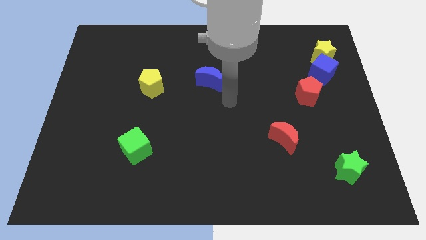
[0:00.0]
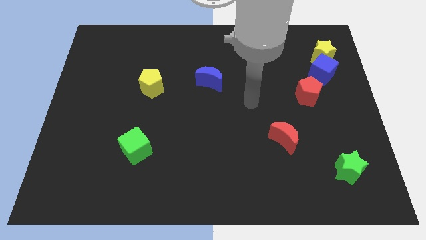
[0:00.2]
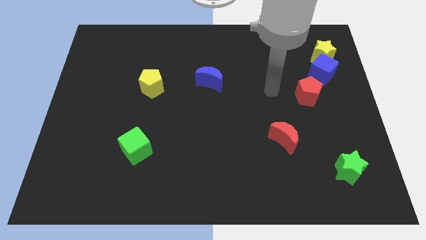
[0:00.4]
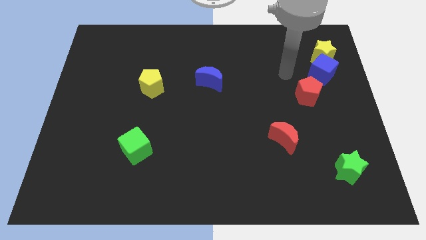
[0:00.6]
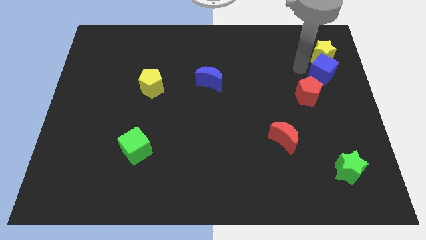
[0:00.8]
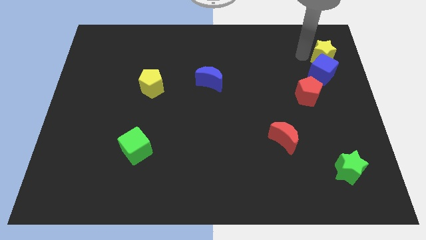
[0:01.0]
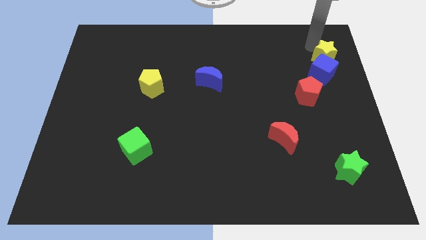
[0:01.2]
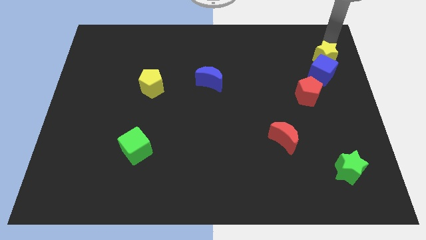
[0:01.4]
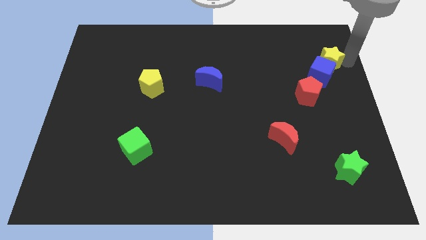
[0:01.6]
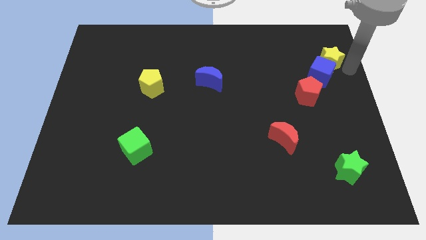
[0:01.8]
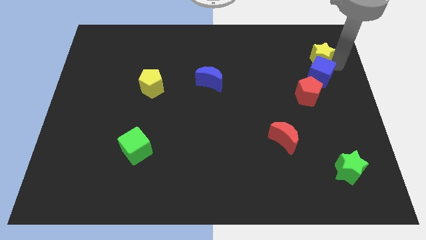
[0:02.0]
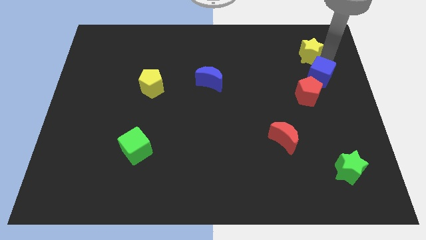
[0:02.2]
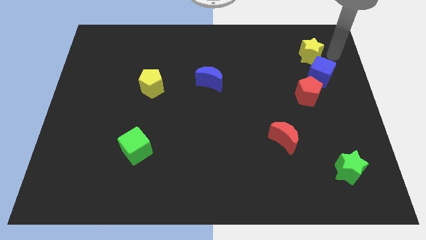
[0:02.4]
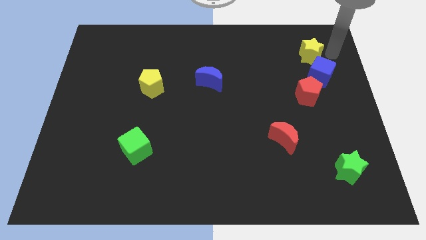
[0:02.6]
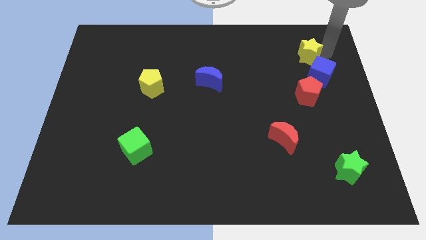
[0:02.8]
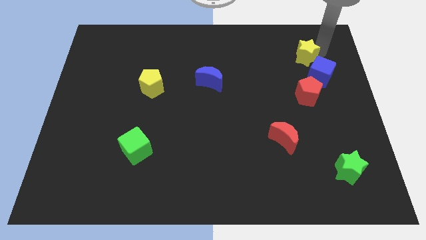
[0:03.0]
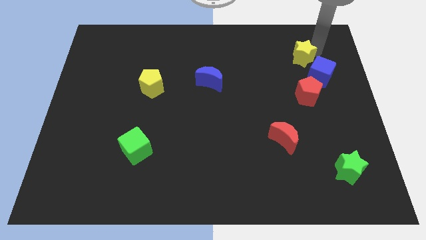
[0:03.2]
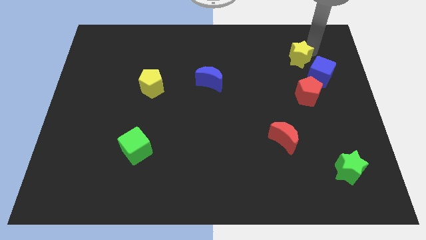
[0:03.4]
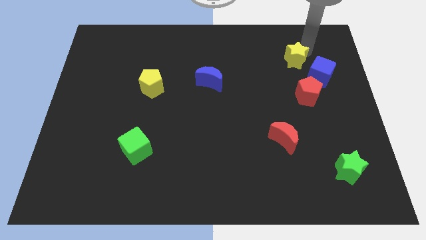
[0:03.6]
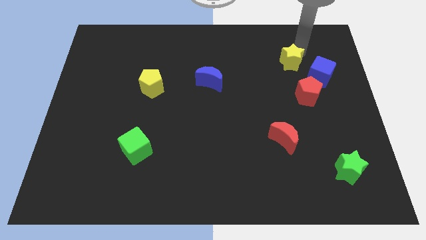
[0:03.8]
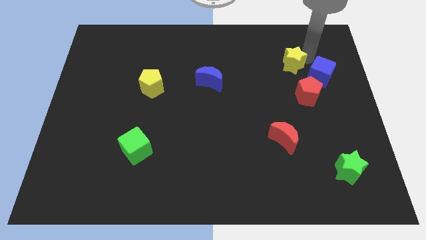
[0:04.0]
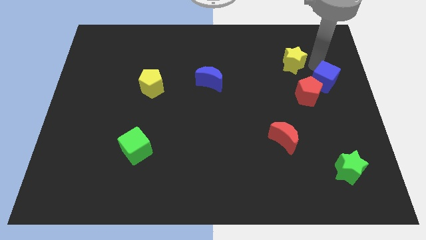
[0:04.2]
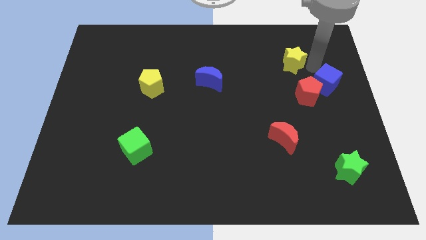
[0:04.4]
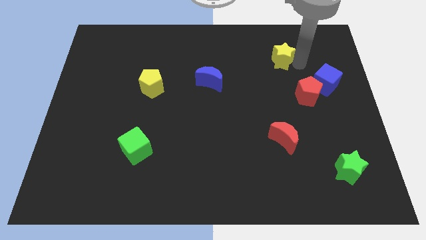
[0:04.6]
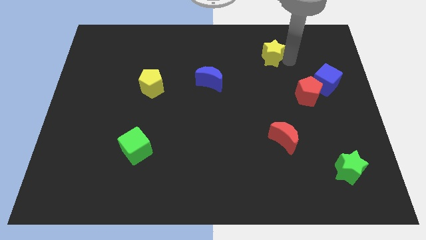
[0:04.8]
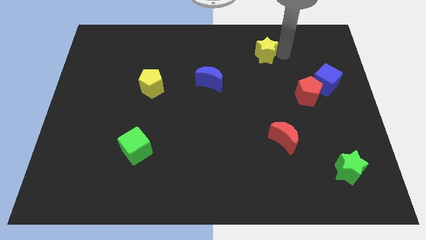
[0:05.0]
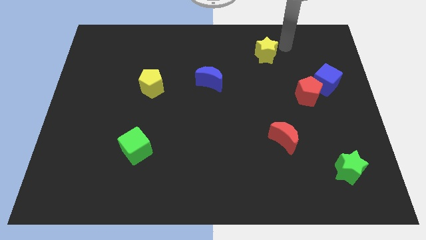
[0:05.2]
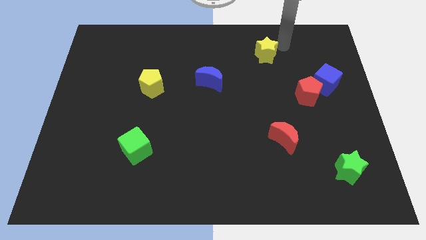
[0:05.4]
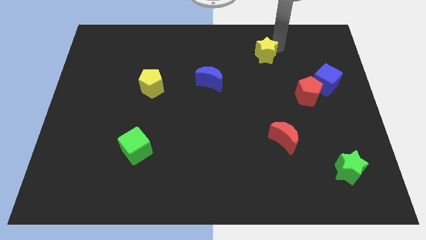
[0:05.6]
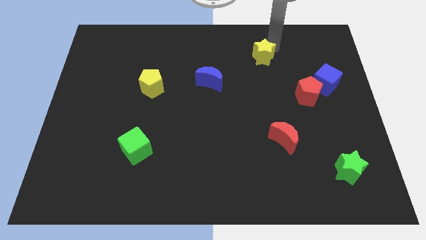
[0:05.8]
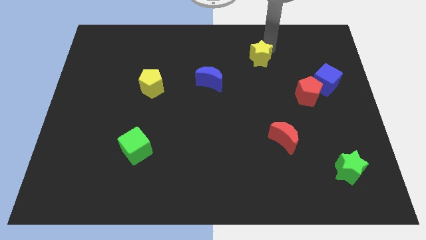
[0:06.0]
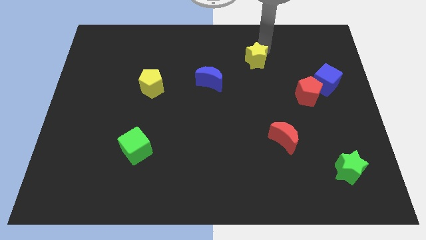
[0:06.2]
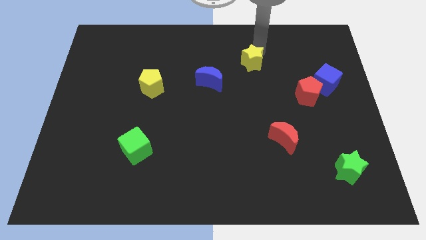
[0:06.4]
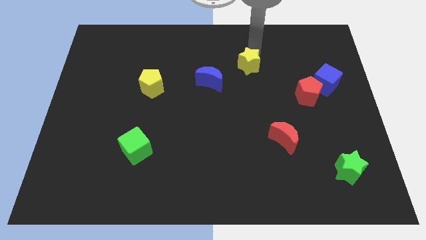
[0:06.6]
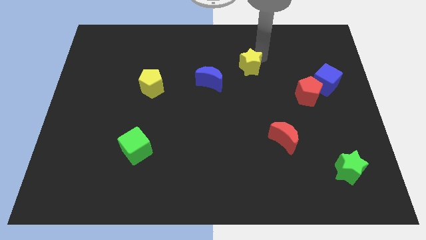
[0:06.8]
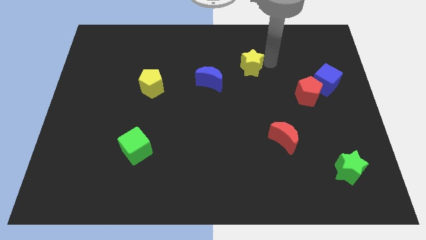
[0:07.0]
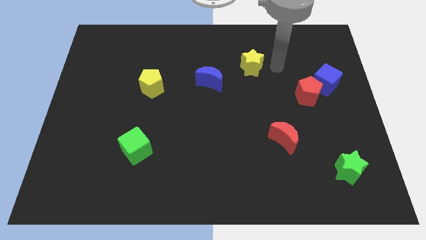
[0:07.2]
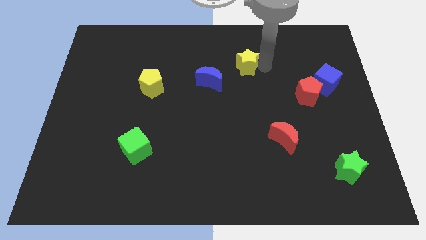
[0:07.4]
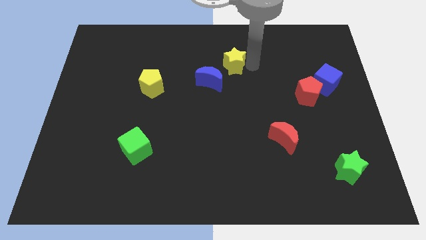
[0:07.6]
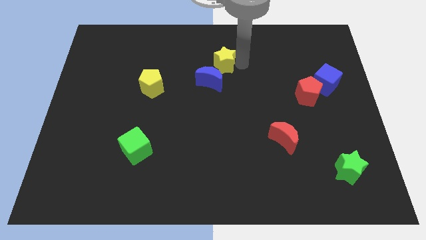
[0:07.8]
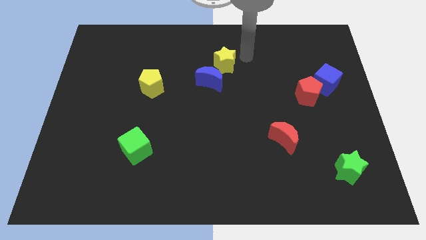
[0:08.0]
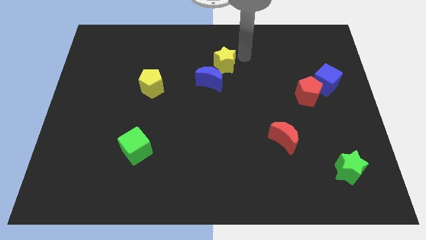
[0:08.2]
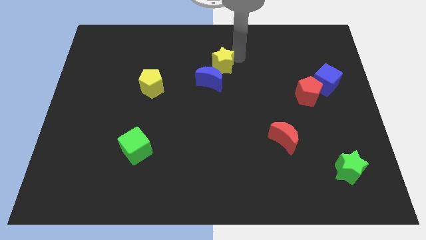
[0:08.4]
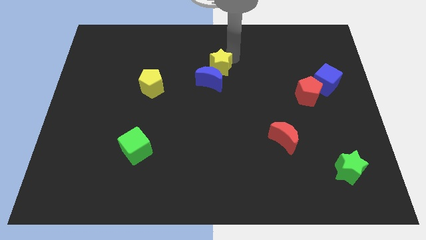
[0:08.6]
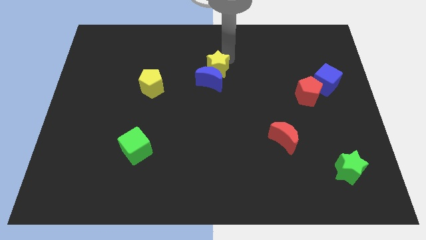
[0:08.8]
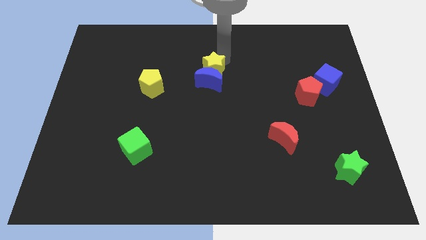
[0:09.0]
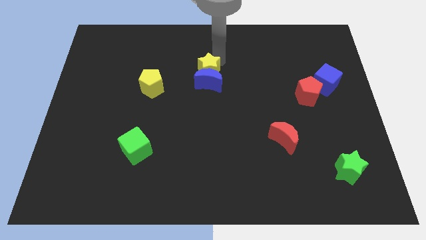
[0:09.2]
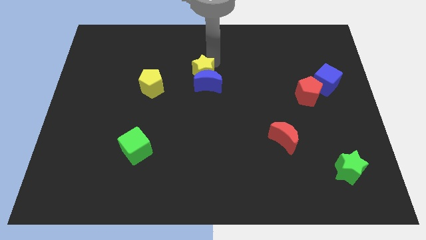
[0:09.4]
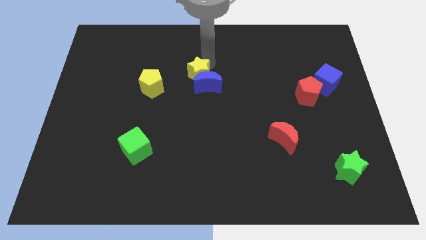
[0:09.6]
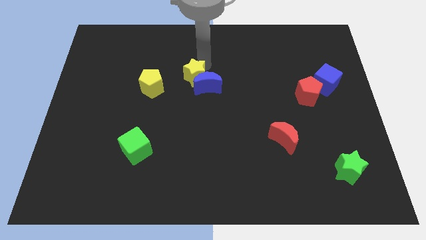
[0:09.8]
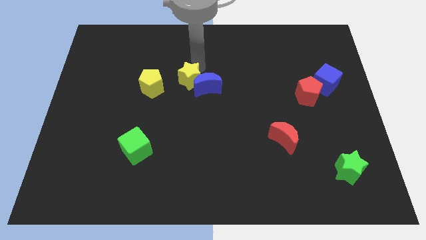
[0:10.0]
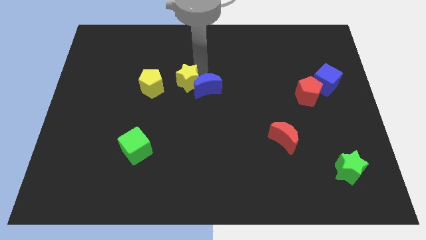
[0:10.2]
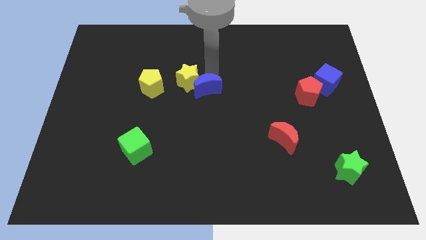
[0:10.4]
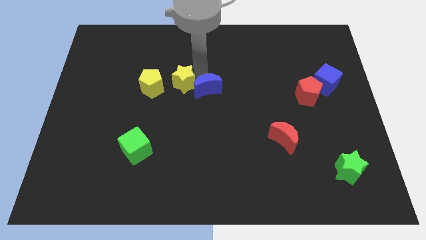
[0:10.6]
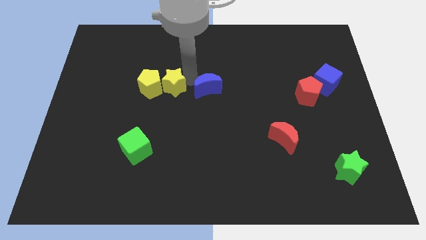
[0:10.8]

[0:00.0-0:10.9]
move the yellow star next to the yellow pentagon

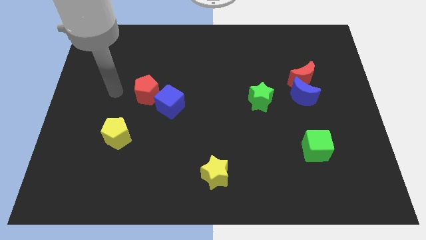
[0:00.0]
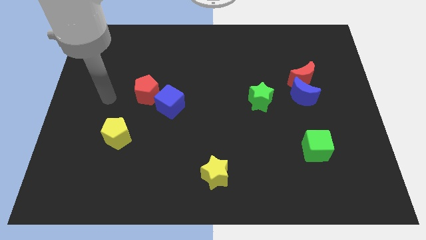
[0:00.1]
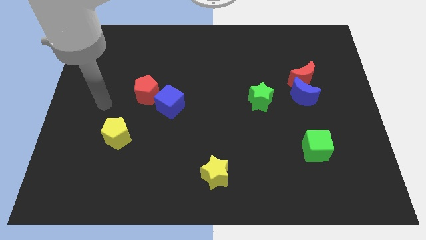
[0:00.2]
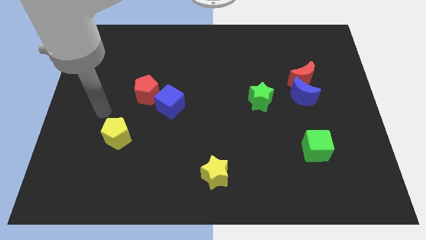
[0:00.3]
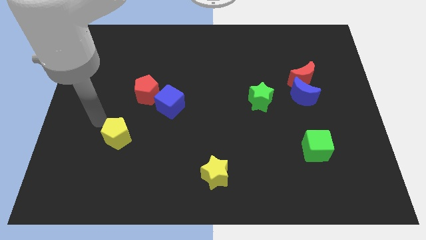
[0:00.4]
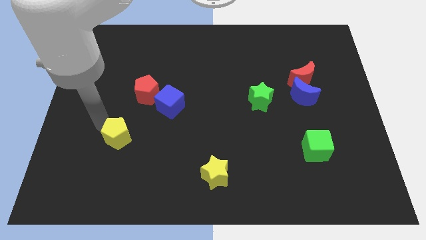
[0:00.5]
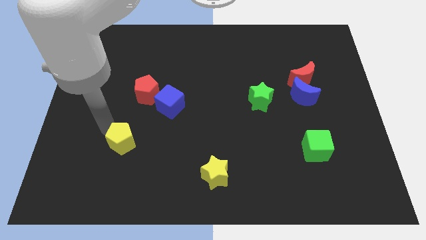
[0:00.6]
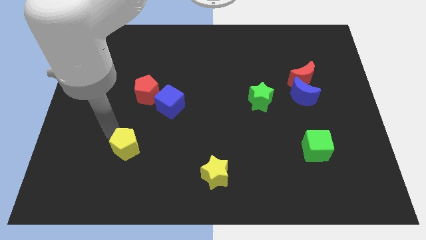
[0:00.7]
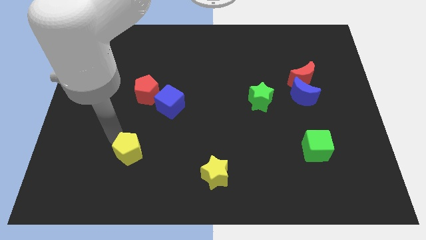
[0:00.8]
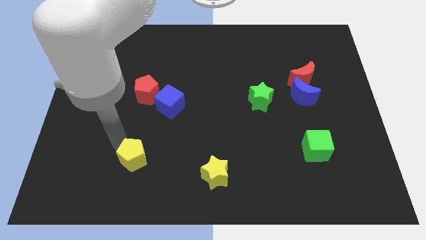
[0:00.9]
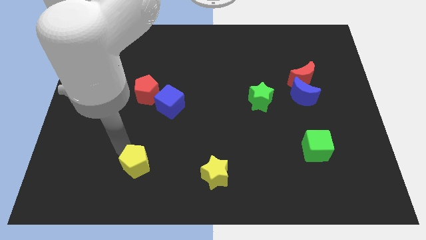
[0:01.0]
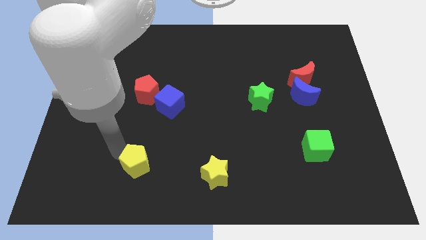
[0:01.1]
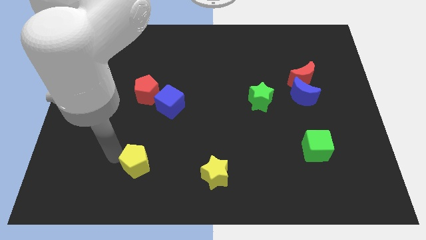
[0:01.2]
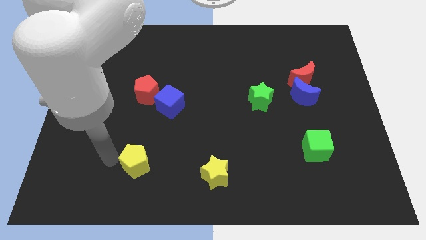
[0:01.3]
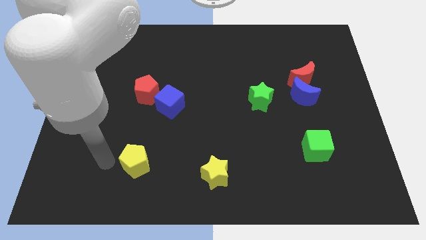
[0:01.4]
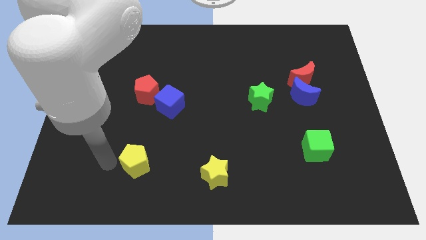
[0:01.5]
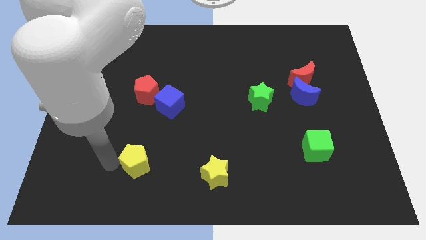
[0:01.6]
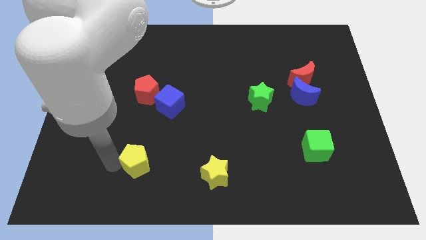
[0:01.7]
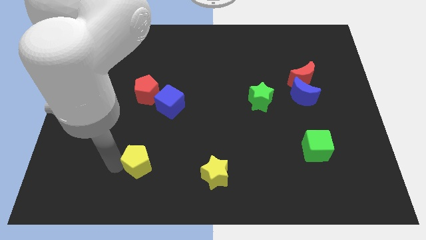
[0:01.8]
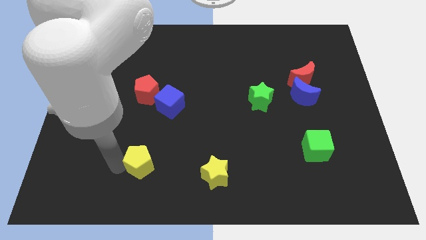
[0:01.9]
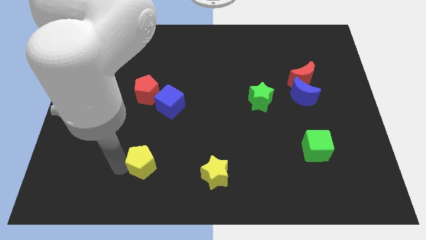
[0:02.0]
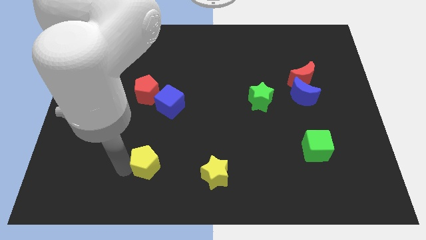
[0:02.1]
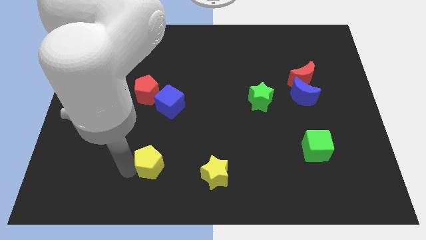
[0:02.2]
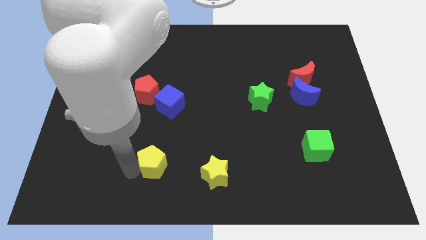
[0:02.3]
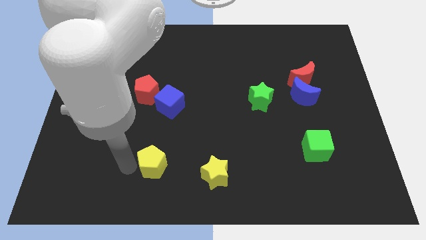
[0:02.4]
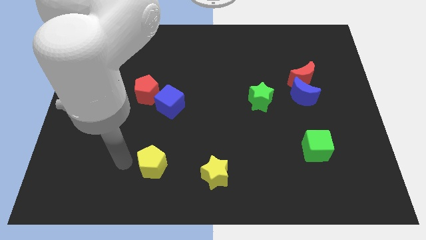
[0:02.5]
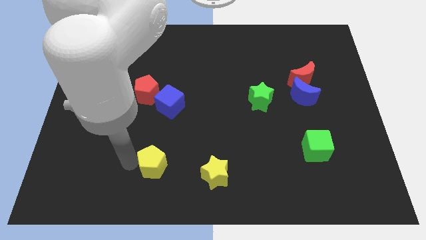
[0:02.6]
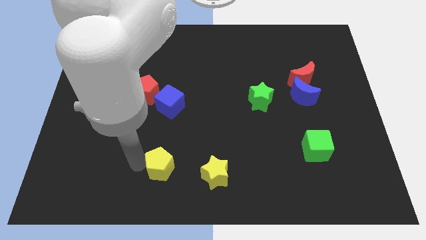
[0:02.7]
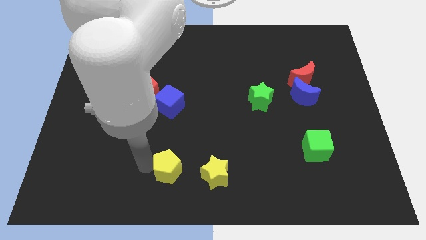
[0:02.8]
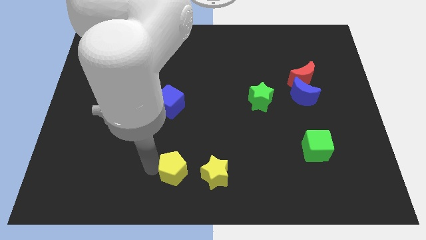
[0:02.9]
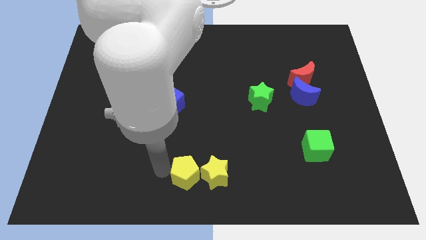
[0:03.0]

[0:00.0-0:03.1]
push the yellow pentagon next to the yellow star
